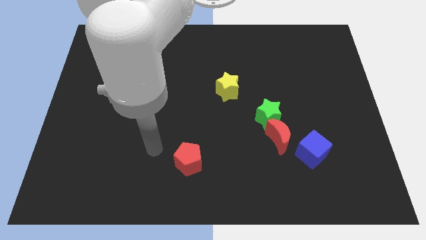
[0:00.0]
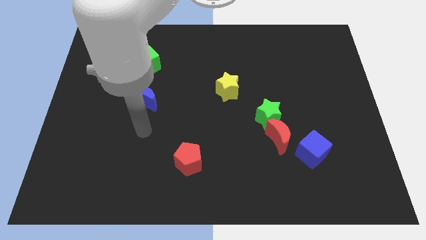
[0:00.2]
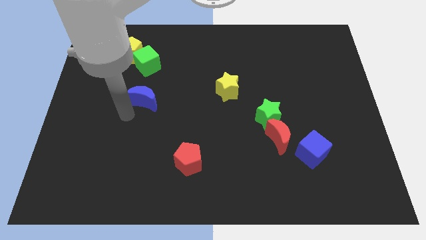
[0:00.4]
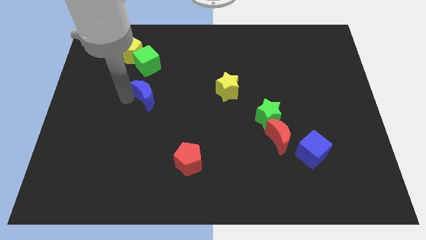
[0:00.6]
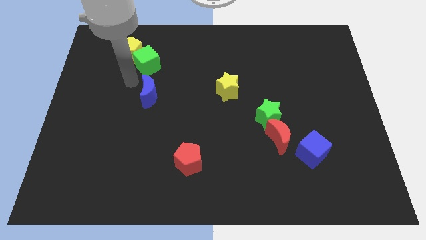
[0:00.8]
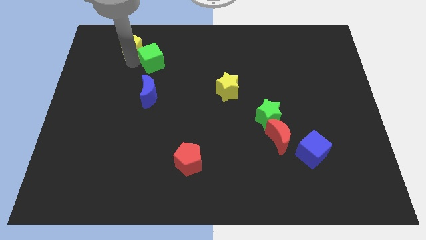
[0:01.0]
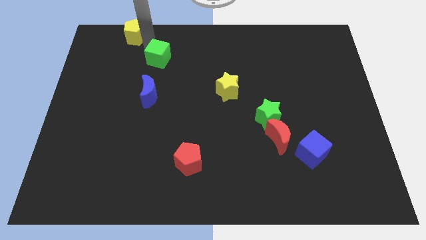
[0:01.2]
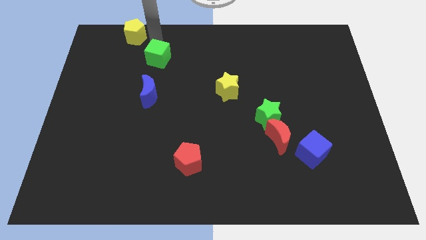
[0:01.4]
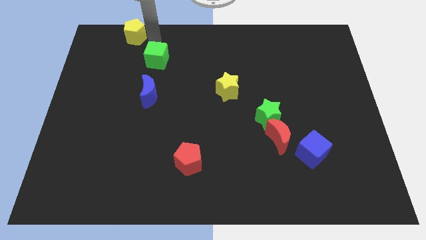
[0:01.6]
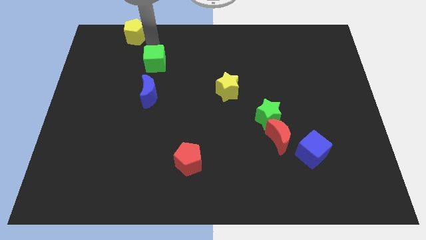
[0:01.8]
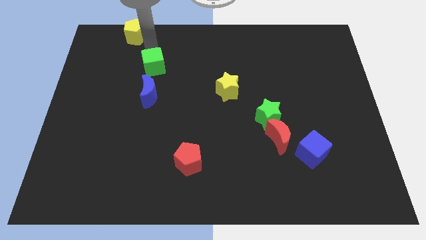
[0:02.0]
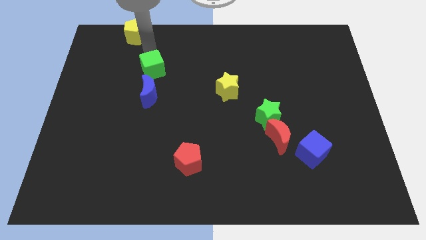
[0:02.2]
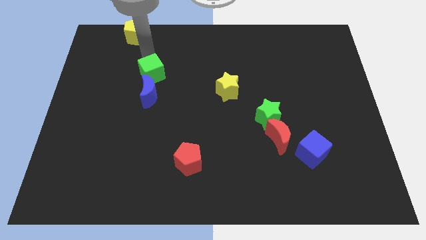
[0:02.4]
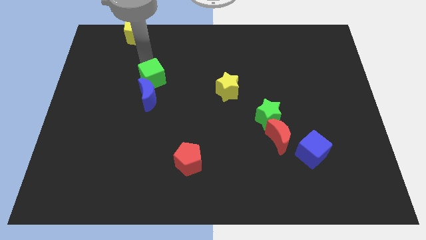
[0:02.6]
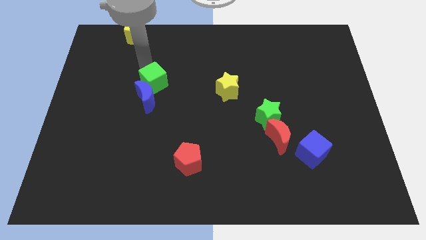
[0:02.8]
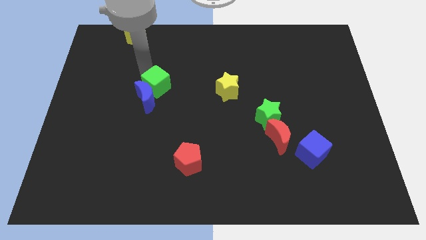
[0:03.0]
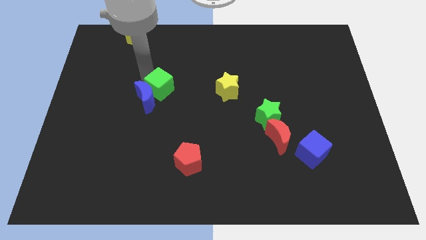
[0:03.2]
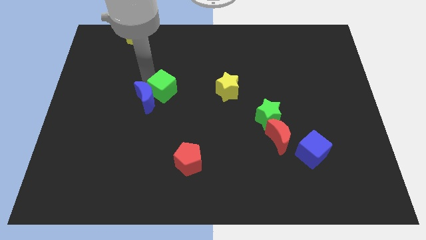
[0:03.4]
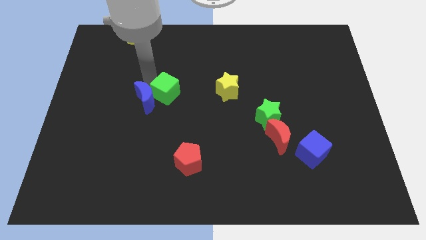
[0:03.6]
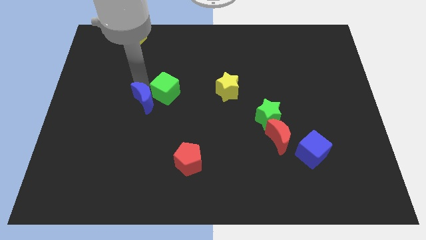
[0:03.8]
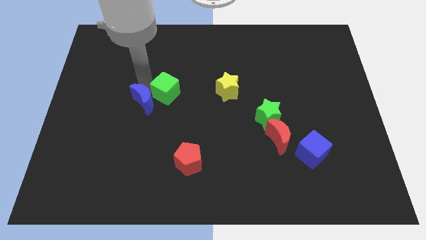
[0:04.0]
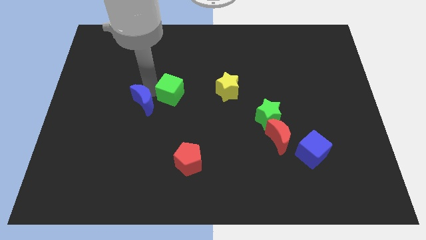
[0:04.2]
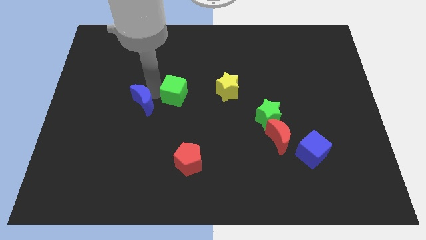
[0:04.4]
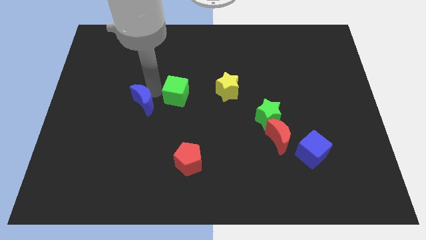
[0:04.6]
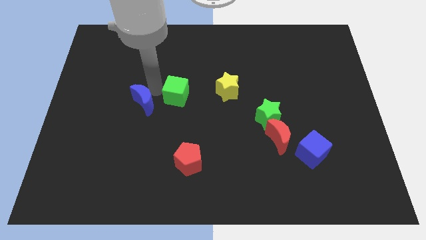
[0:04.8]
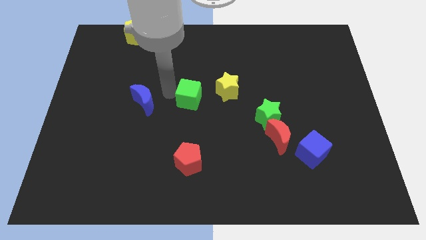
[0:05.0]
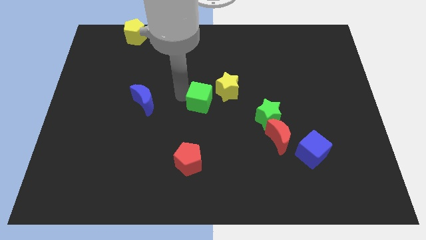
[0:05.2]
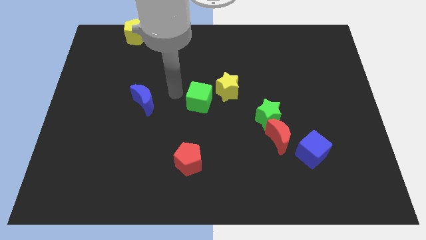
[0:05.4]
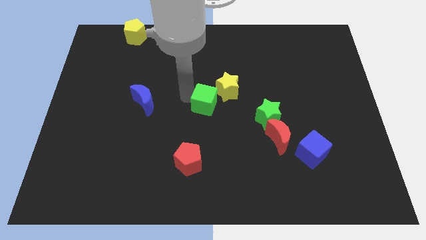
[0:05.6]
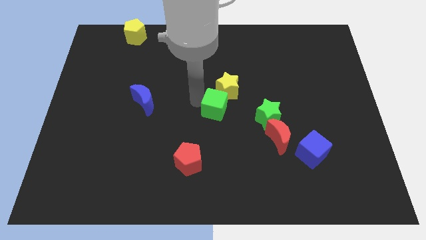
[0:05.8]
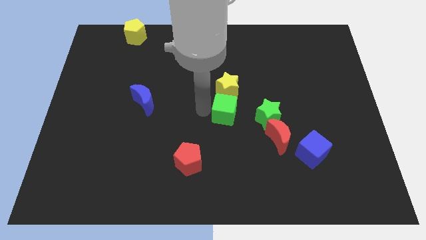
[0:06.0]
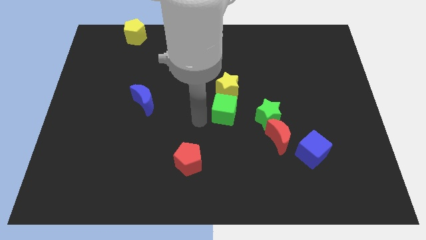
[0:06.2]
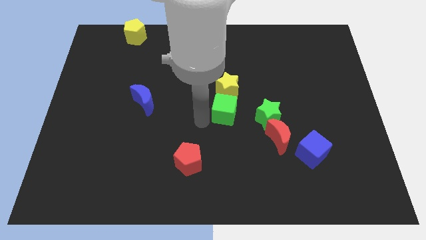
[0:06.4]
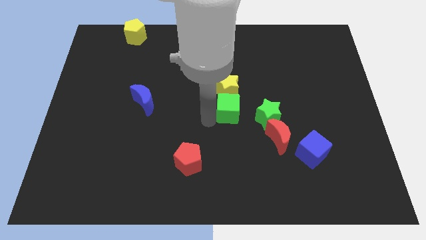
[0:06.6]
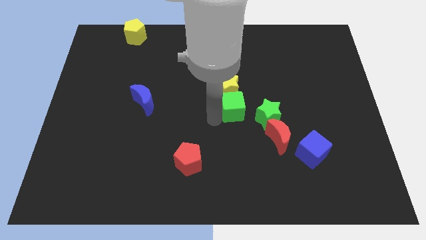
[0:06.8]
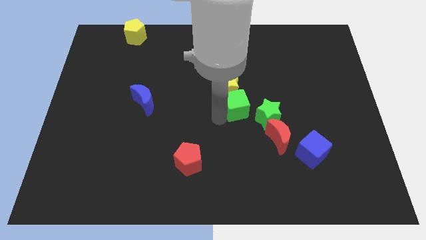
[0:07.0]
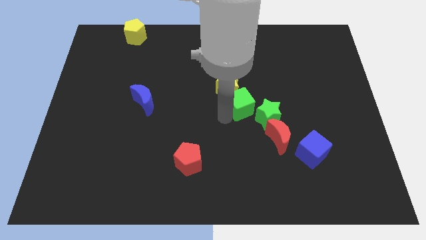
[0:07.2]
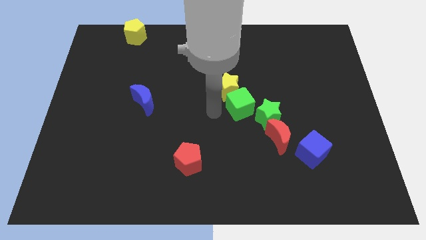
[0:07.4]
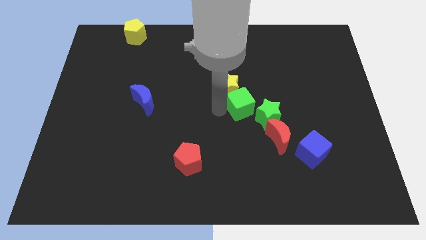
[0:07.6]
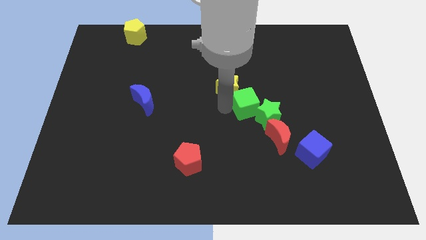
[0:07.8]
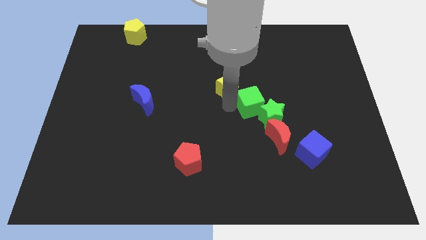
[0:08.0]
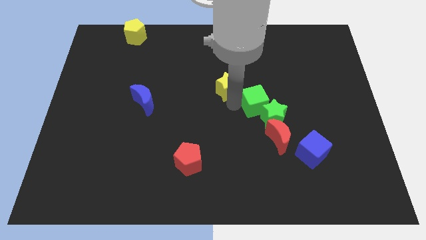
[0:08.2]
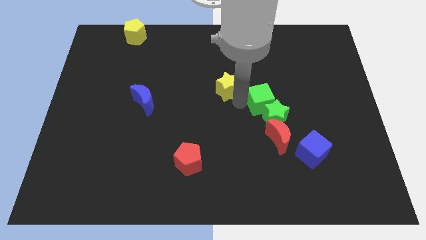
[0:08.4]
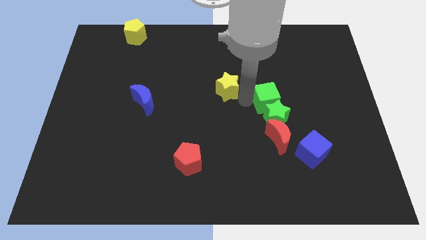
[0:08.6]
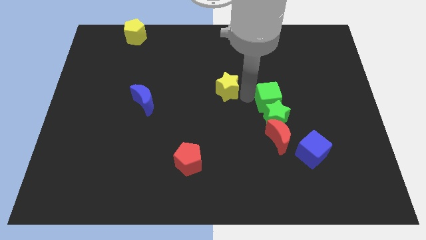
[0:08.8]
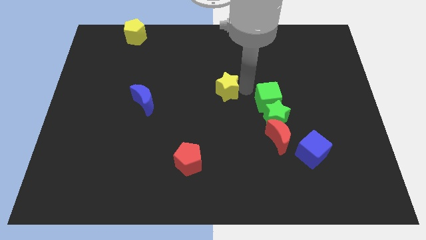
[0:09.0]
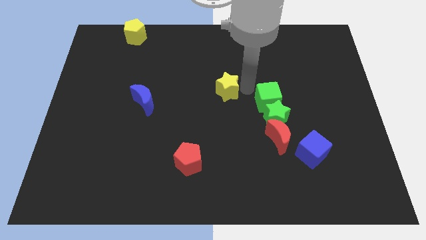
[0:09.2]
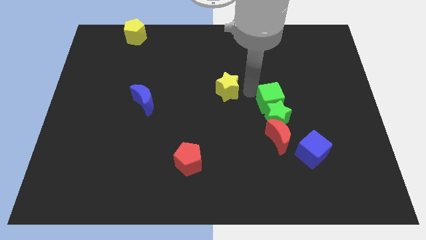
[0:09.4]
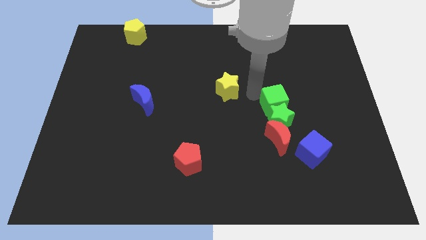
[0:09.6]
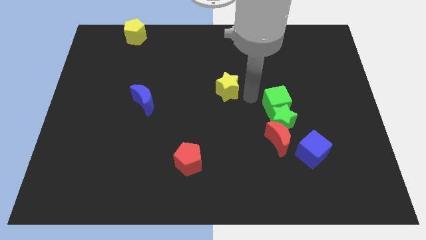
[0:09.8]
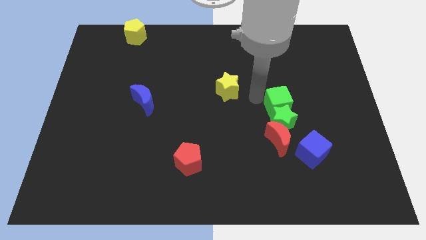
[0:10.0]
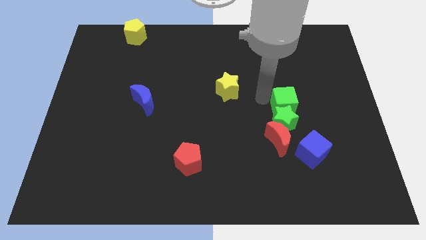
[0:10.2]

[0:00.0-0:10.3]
push the green cube to the top side of the blue cube

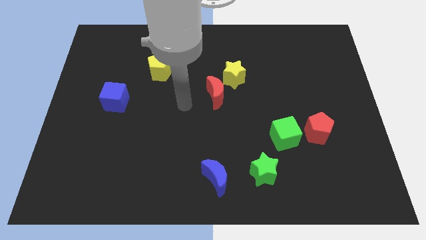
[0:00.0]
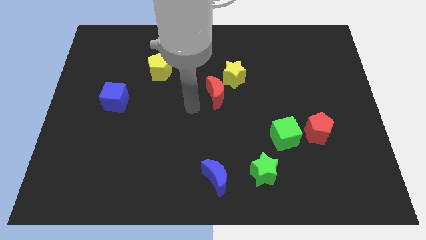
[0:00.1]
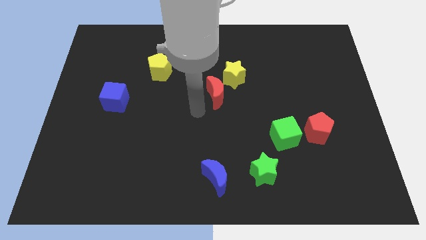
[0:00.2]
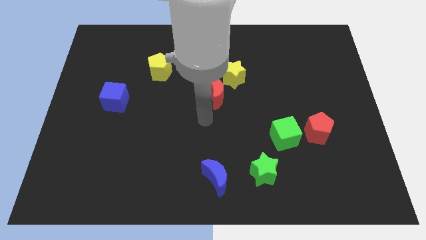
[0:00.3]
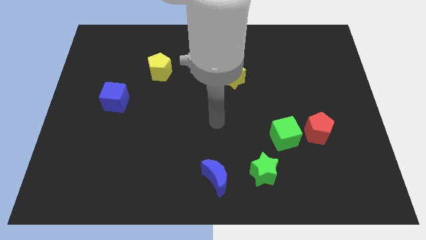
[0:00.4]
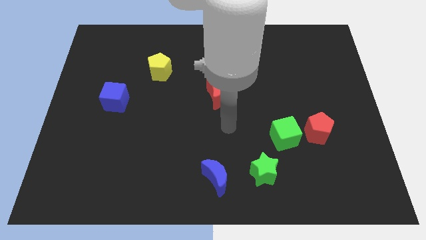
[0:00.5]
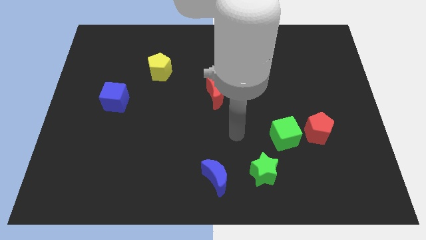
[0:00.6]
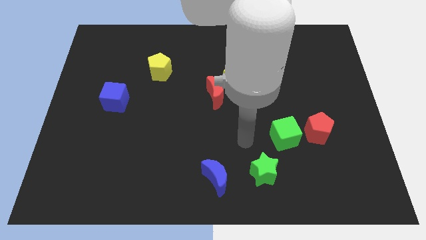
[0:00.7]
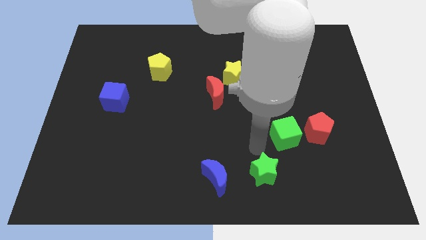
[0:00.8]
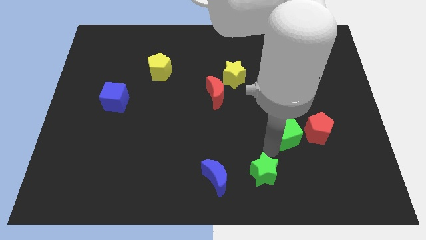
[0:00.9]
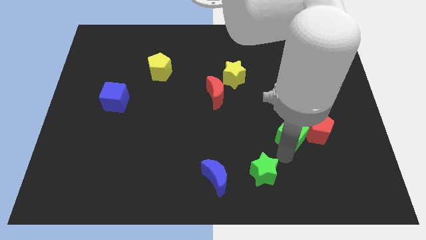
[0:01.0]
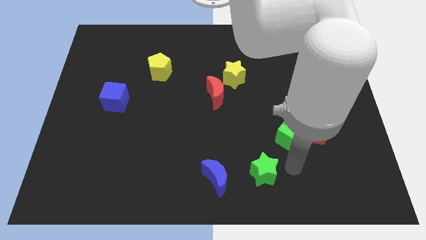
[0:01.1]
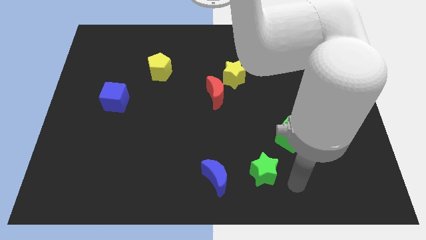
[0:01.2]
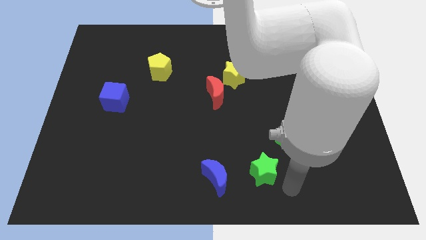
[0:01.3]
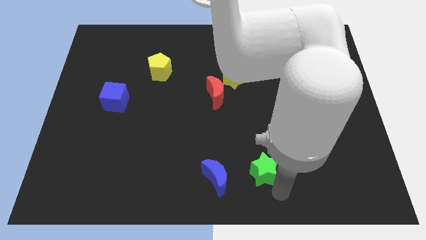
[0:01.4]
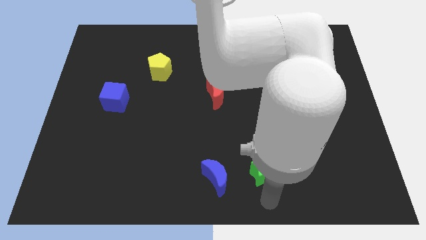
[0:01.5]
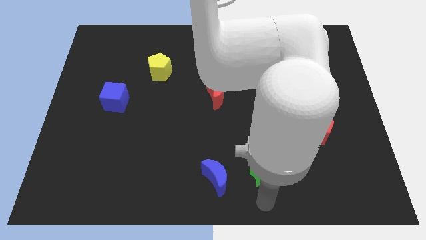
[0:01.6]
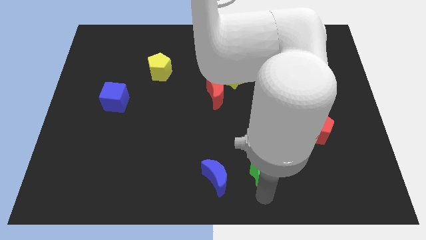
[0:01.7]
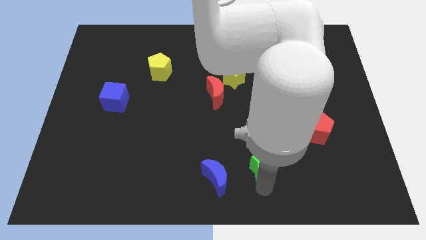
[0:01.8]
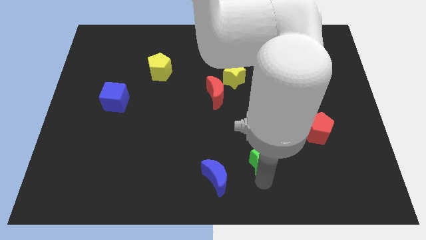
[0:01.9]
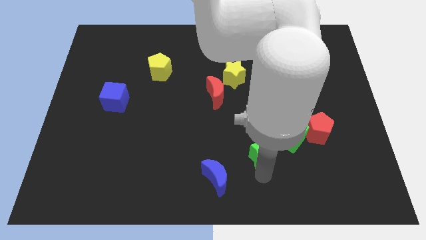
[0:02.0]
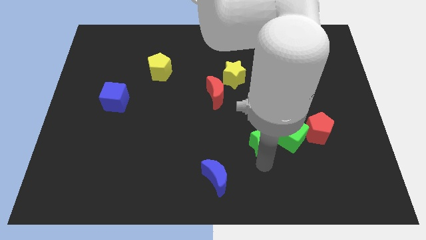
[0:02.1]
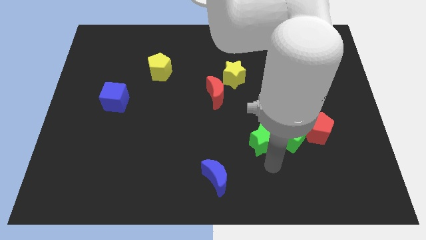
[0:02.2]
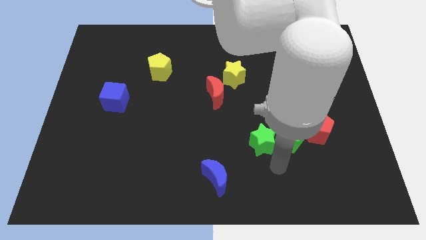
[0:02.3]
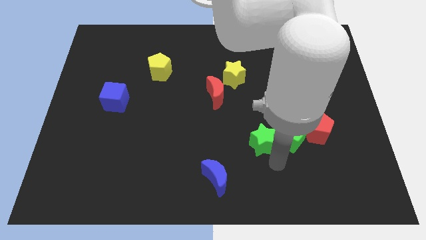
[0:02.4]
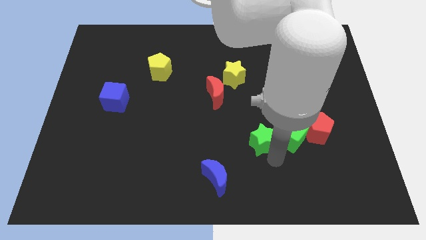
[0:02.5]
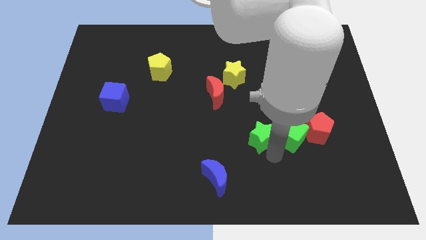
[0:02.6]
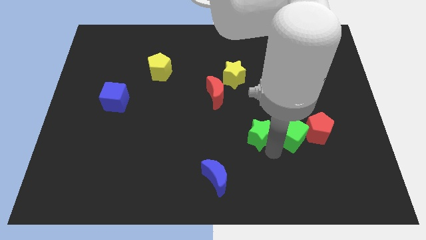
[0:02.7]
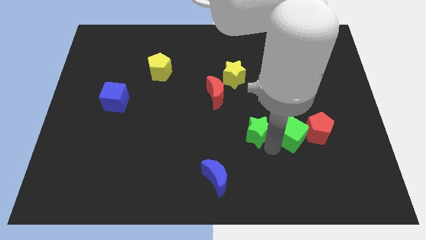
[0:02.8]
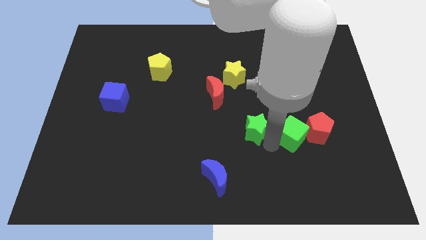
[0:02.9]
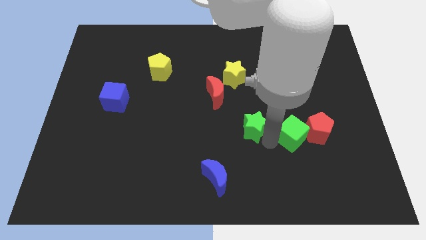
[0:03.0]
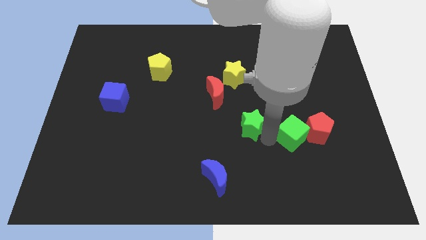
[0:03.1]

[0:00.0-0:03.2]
push the green star to the bottom right side of the red moon
